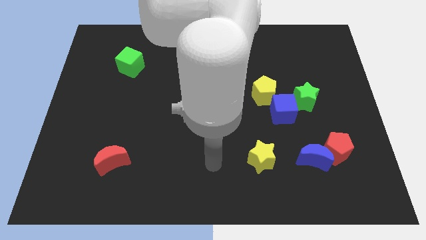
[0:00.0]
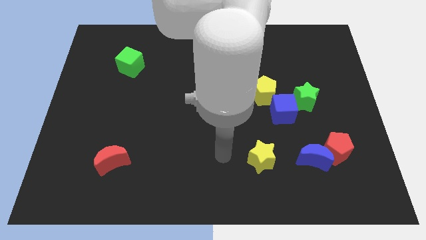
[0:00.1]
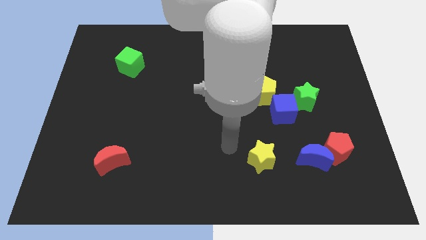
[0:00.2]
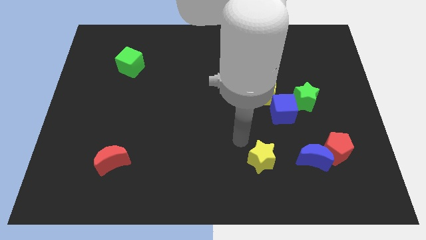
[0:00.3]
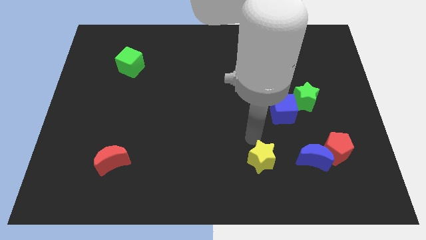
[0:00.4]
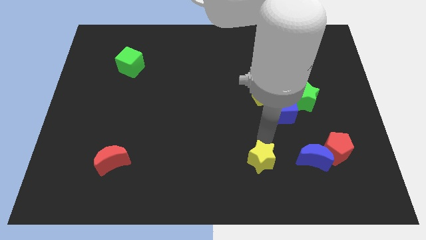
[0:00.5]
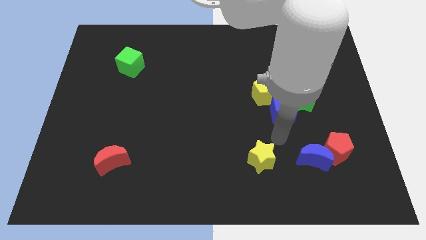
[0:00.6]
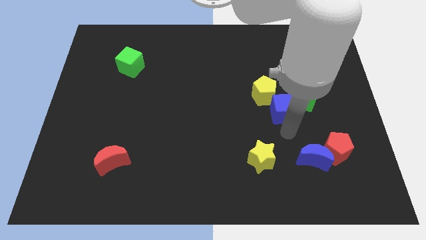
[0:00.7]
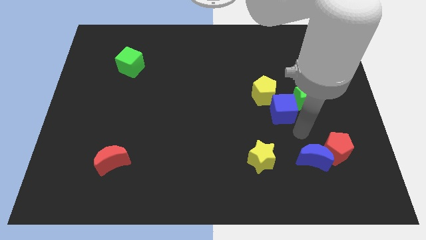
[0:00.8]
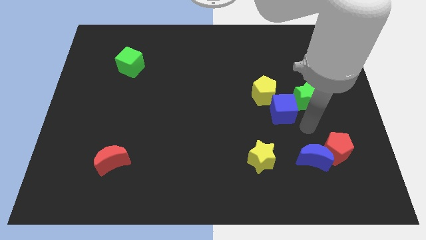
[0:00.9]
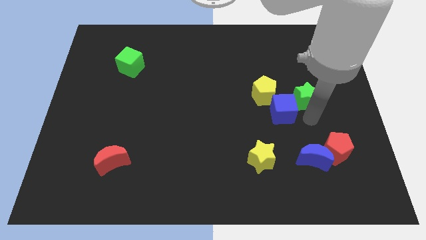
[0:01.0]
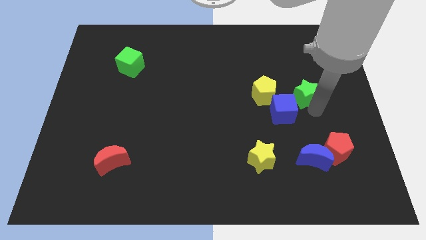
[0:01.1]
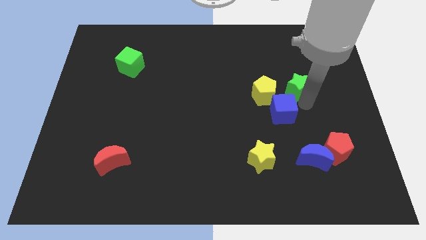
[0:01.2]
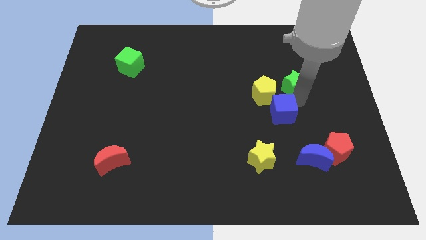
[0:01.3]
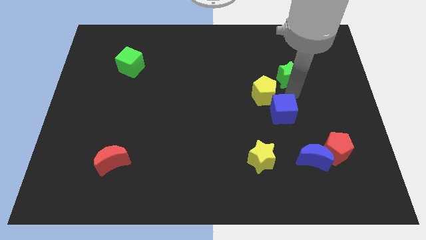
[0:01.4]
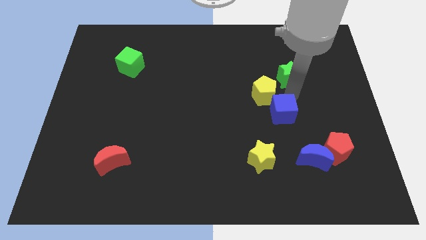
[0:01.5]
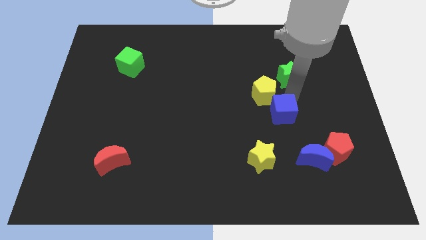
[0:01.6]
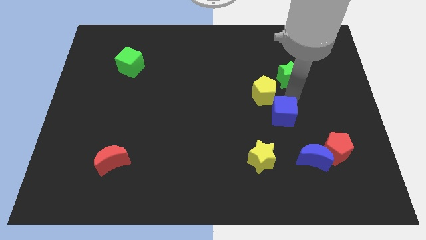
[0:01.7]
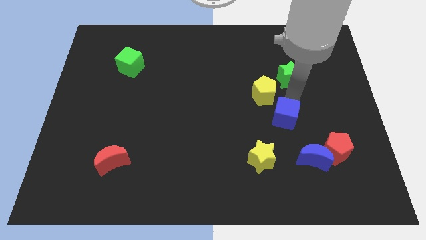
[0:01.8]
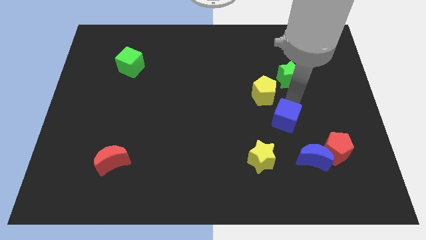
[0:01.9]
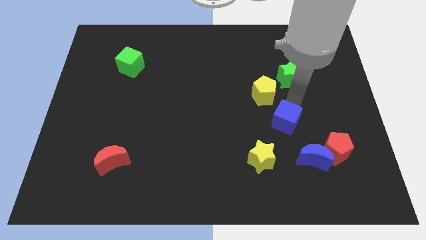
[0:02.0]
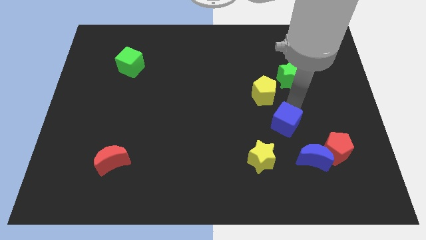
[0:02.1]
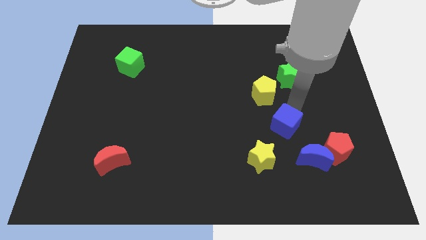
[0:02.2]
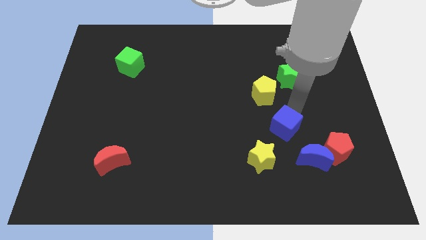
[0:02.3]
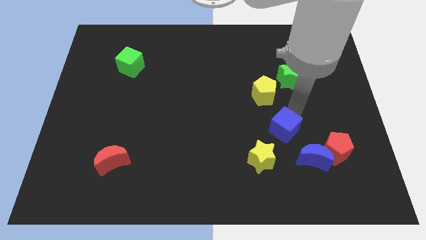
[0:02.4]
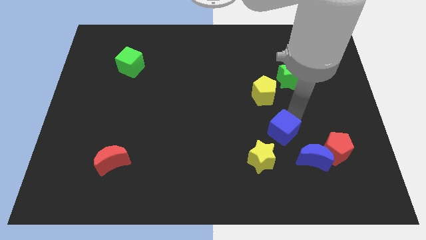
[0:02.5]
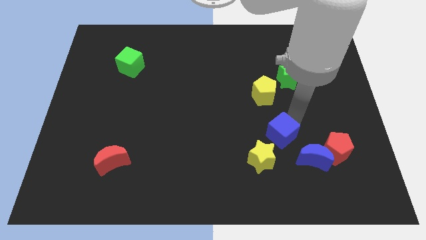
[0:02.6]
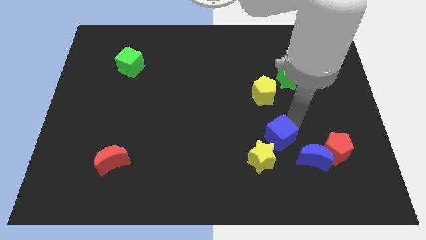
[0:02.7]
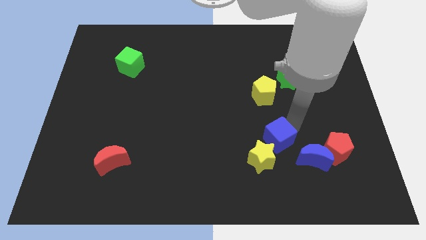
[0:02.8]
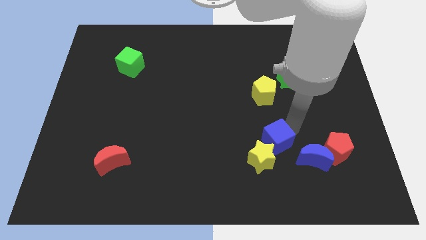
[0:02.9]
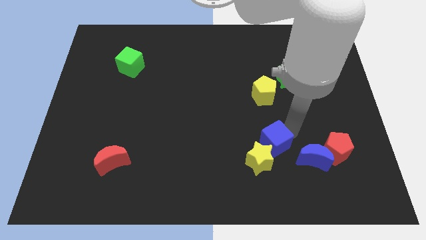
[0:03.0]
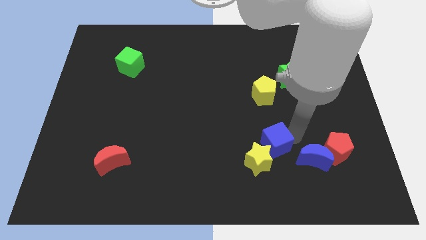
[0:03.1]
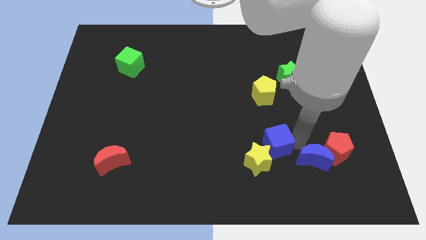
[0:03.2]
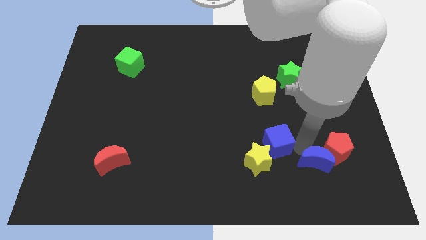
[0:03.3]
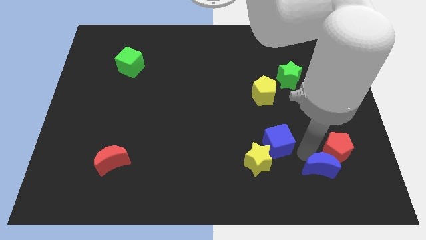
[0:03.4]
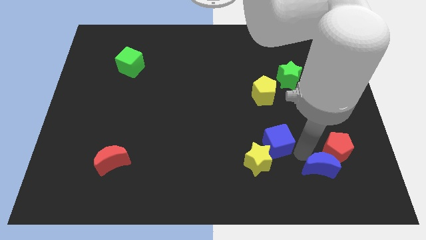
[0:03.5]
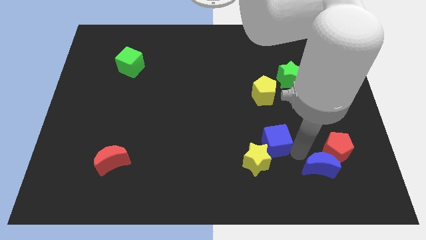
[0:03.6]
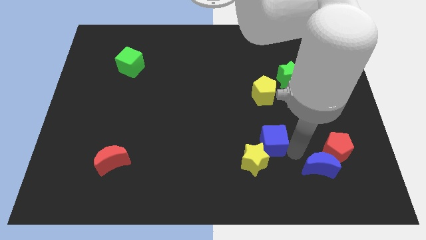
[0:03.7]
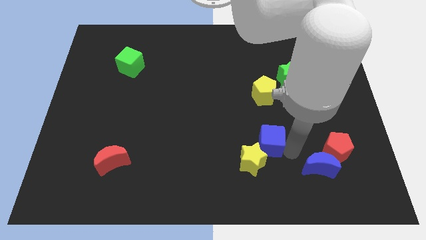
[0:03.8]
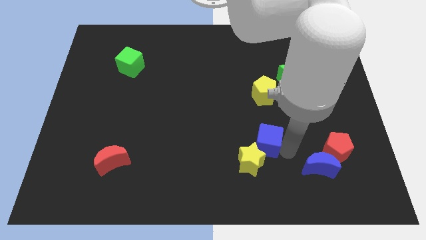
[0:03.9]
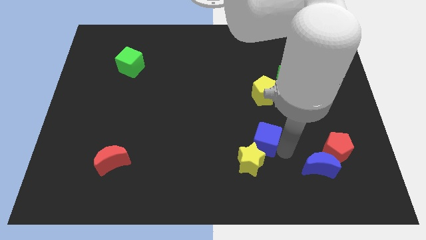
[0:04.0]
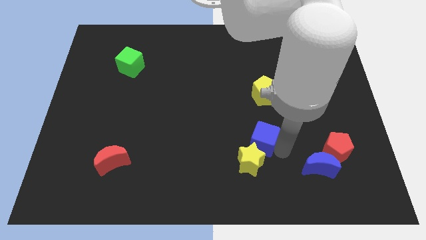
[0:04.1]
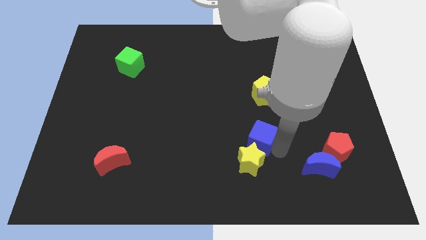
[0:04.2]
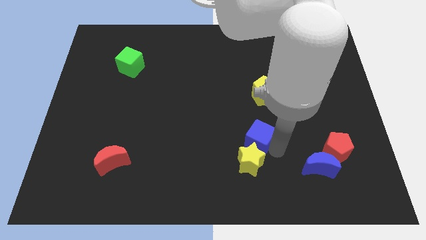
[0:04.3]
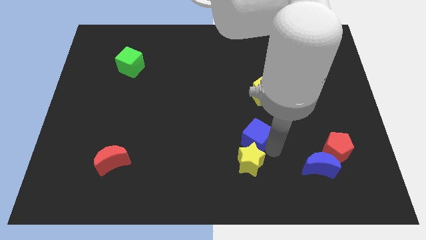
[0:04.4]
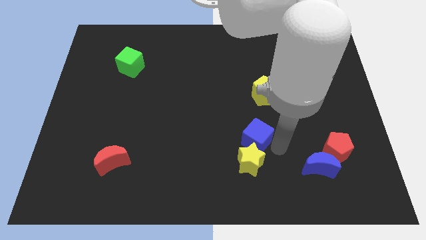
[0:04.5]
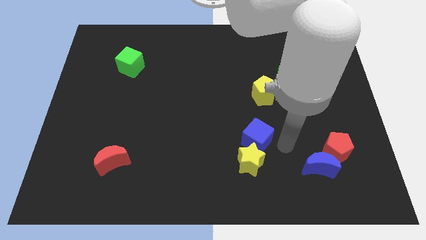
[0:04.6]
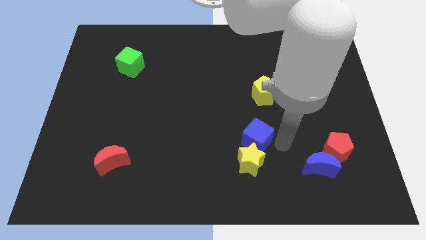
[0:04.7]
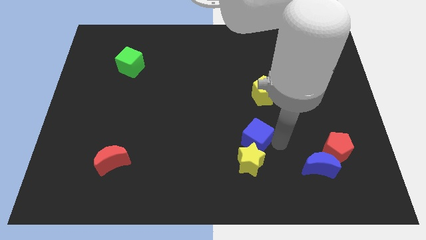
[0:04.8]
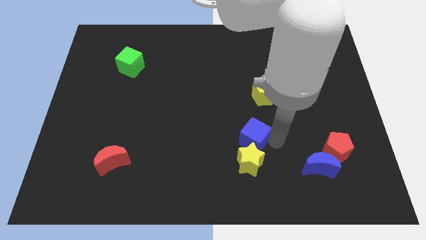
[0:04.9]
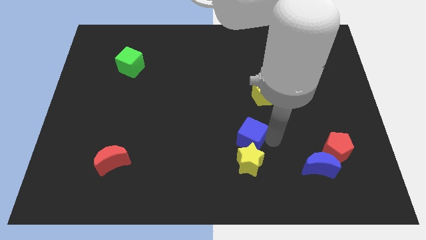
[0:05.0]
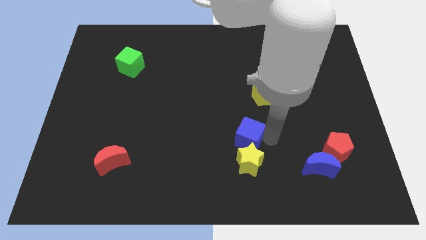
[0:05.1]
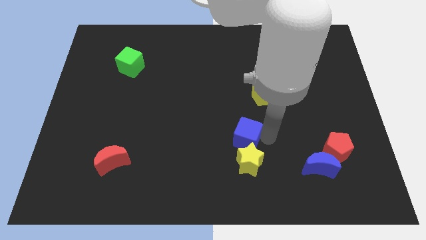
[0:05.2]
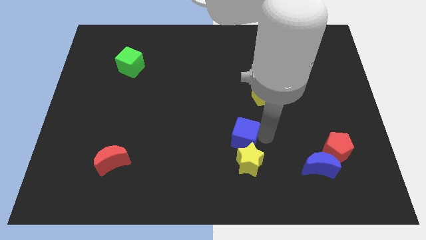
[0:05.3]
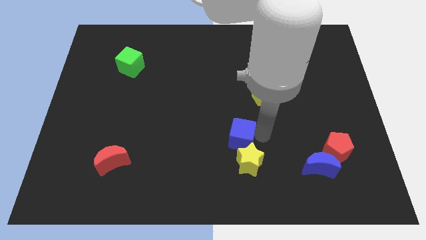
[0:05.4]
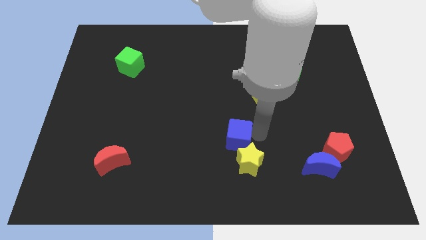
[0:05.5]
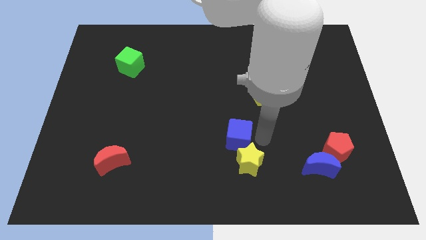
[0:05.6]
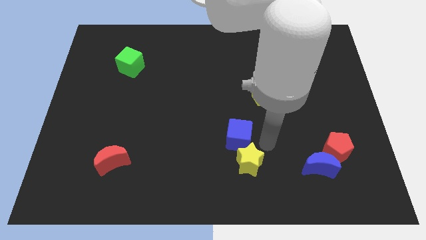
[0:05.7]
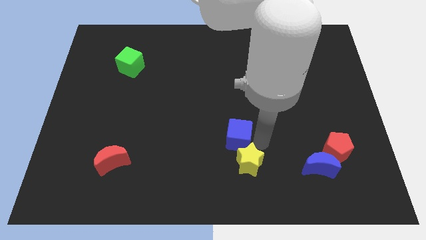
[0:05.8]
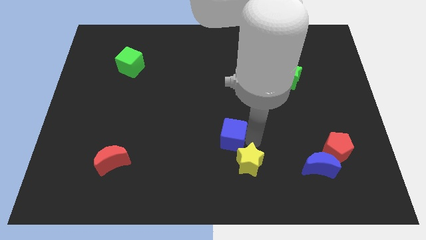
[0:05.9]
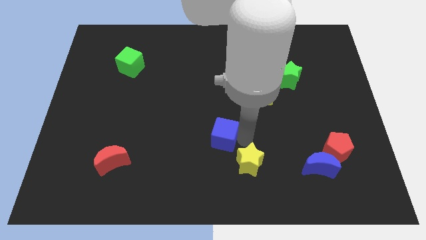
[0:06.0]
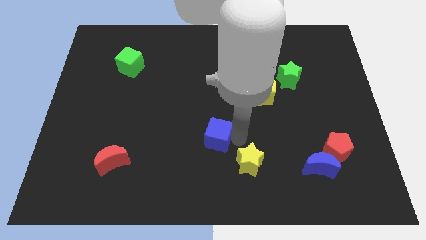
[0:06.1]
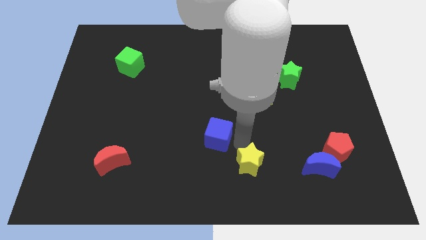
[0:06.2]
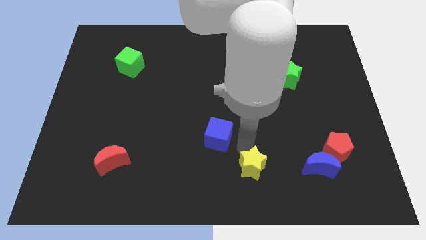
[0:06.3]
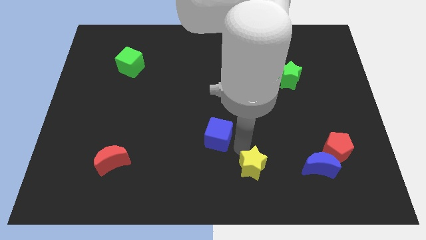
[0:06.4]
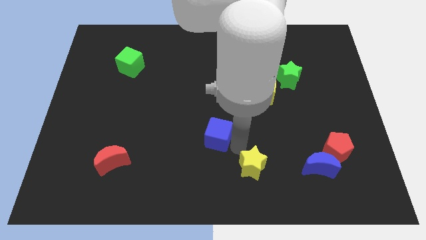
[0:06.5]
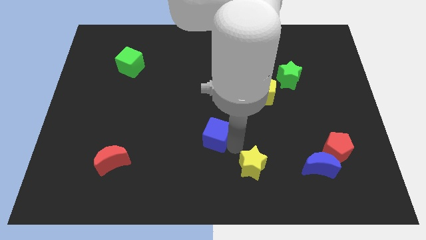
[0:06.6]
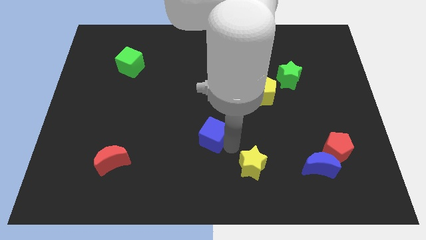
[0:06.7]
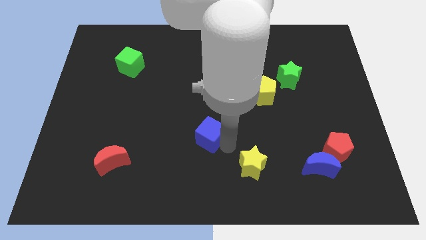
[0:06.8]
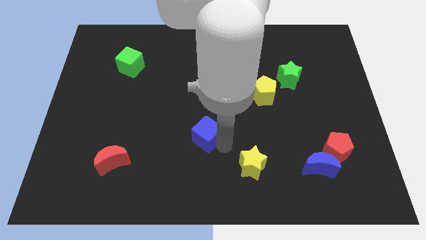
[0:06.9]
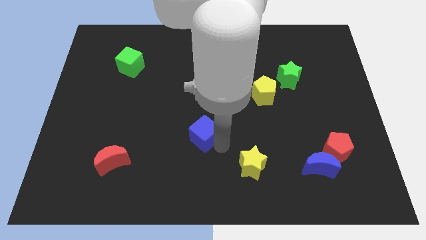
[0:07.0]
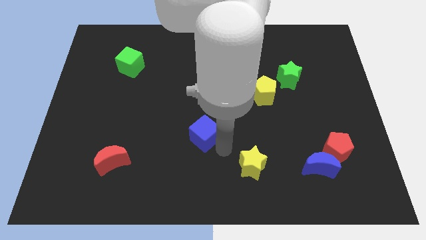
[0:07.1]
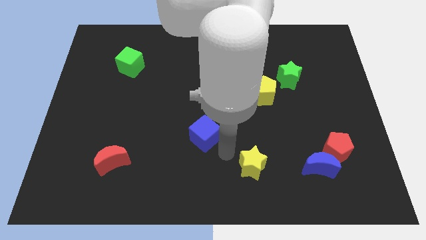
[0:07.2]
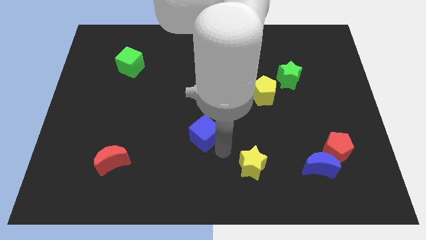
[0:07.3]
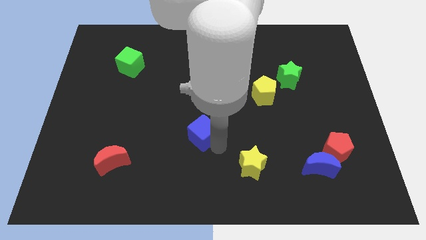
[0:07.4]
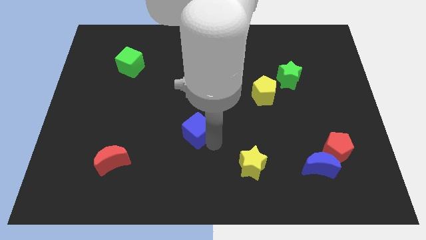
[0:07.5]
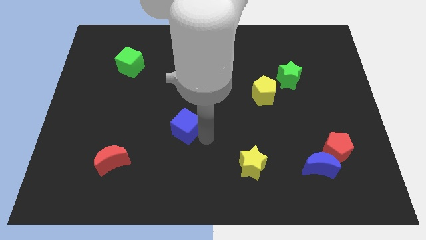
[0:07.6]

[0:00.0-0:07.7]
slide the blue cube left
